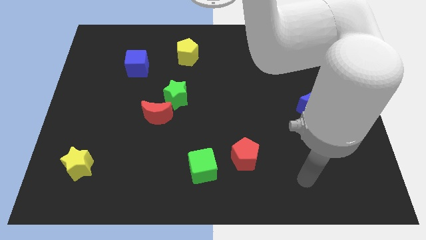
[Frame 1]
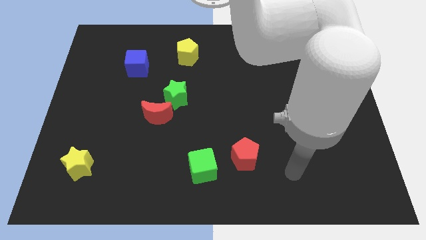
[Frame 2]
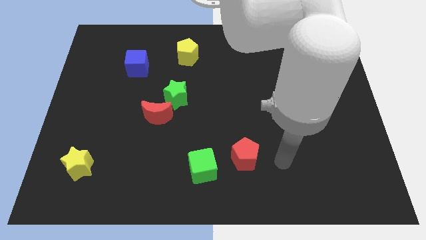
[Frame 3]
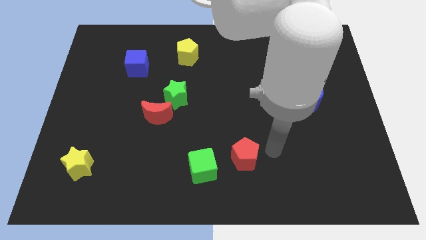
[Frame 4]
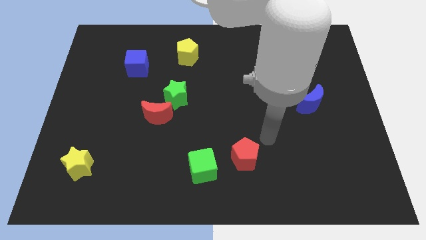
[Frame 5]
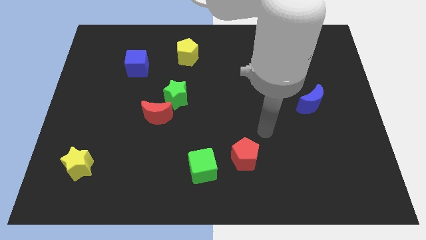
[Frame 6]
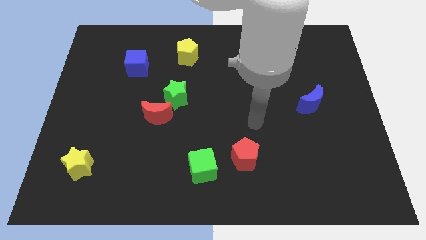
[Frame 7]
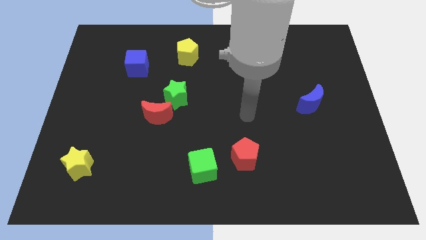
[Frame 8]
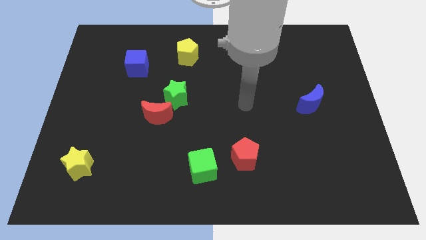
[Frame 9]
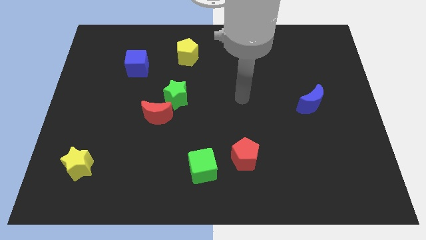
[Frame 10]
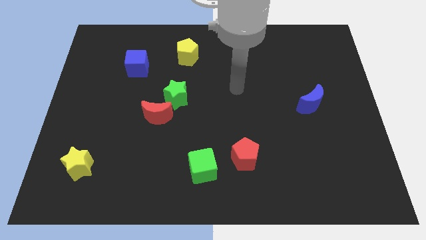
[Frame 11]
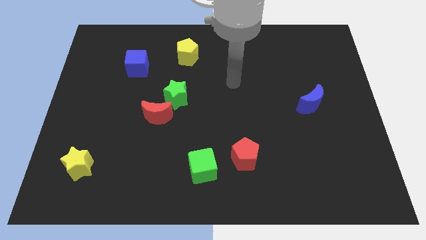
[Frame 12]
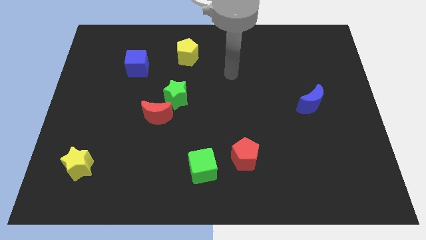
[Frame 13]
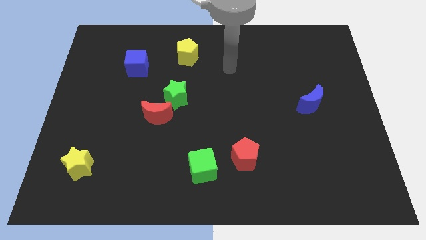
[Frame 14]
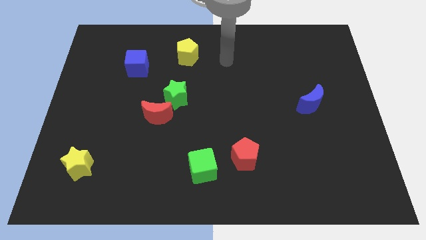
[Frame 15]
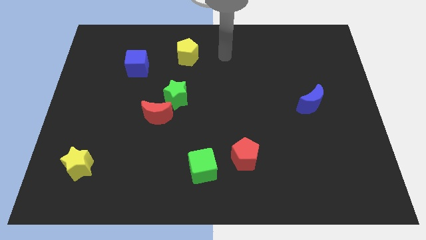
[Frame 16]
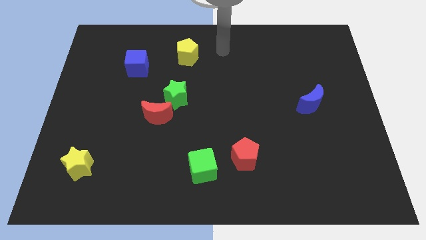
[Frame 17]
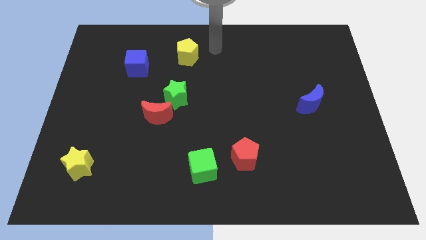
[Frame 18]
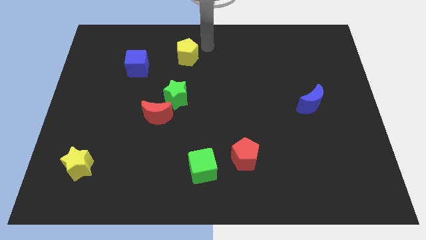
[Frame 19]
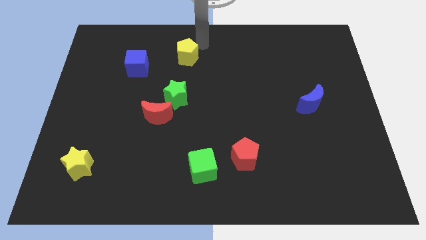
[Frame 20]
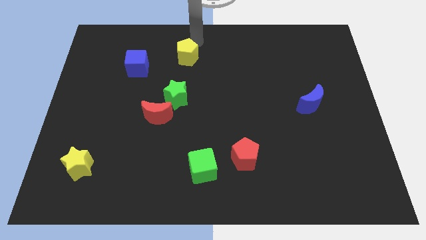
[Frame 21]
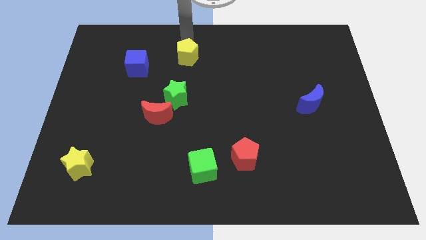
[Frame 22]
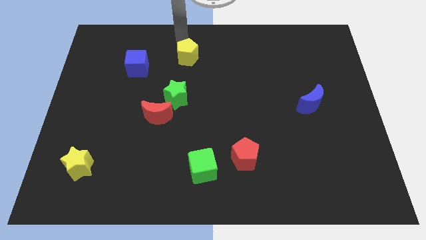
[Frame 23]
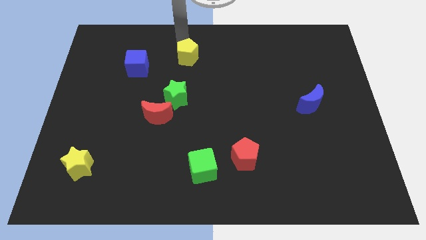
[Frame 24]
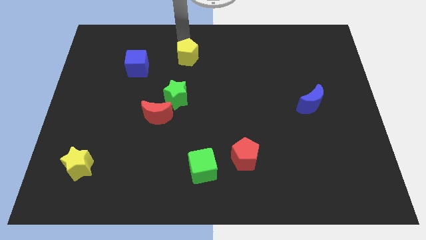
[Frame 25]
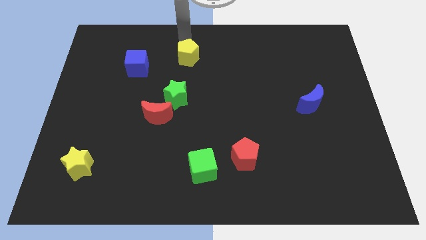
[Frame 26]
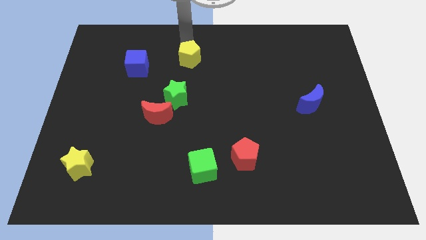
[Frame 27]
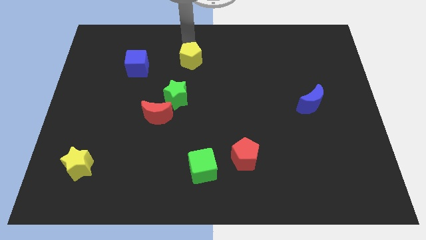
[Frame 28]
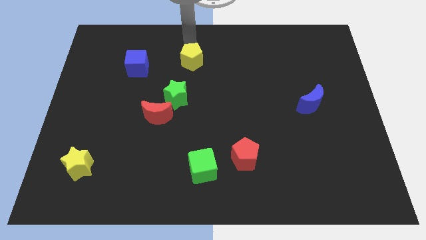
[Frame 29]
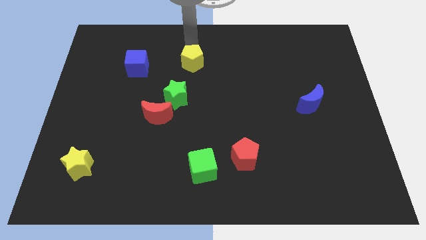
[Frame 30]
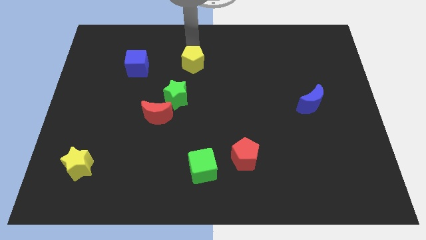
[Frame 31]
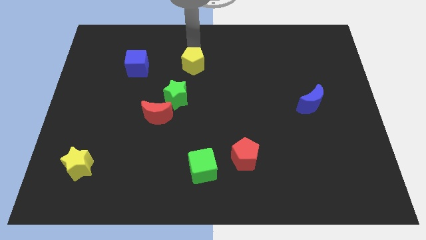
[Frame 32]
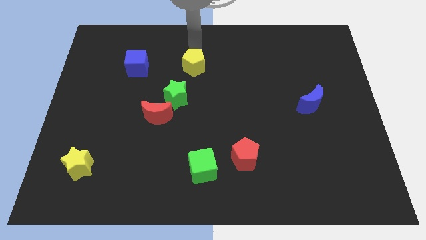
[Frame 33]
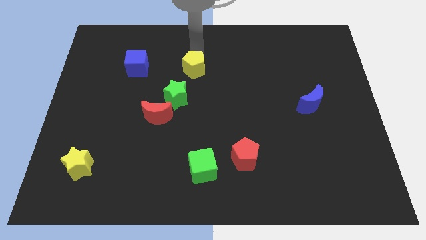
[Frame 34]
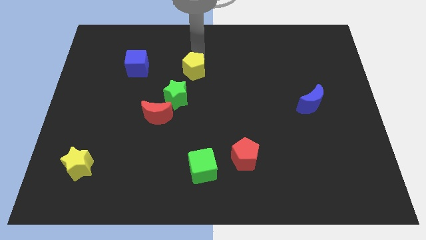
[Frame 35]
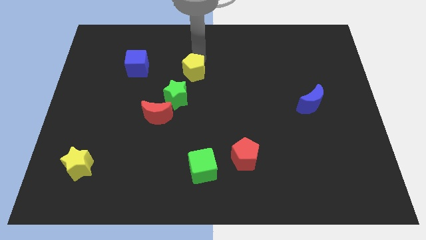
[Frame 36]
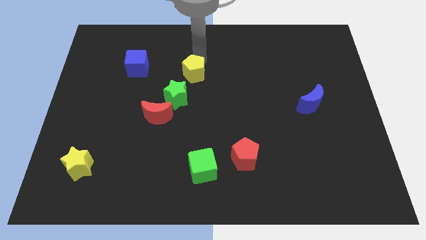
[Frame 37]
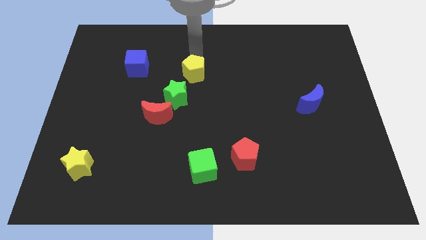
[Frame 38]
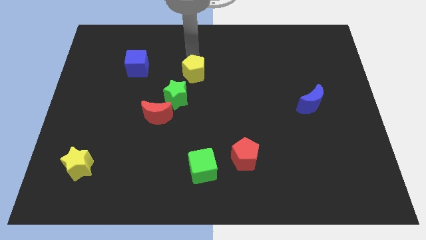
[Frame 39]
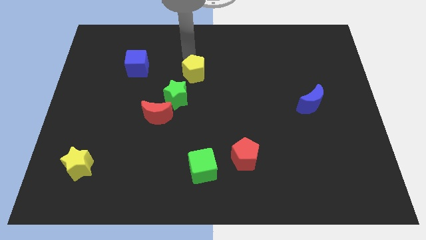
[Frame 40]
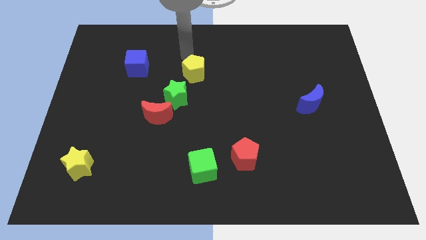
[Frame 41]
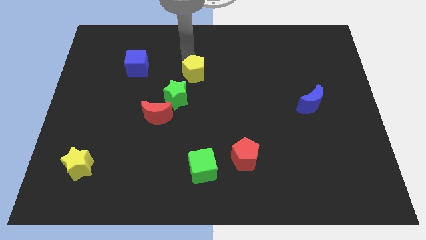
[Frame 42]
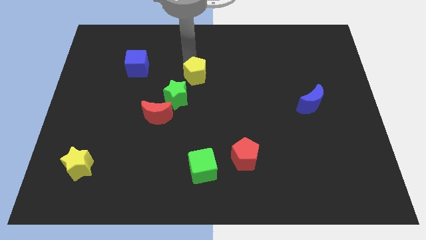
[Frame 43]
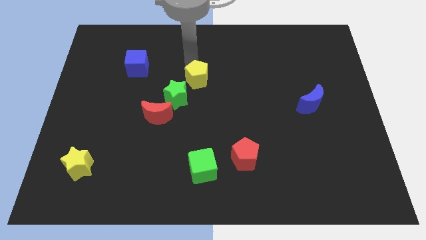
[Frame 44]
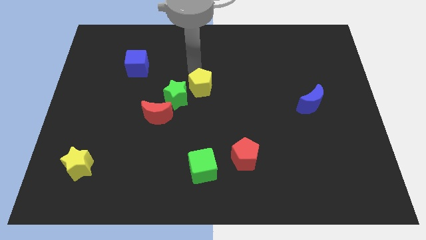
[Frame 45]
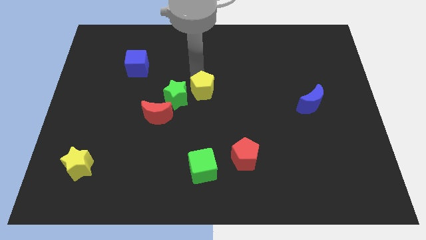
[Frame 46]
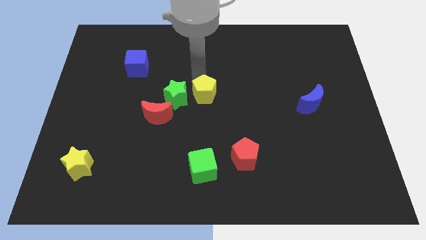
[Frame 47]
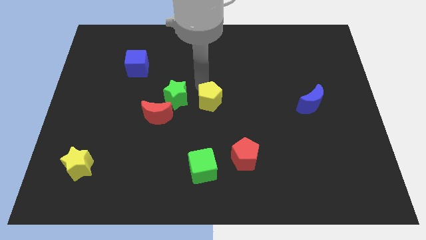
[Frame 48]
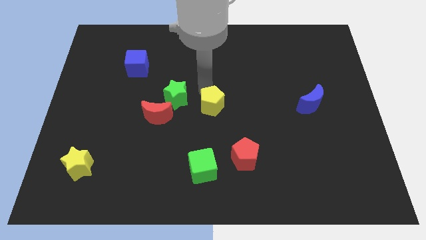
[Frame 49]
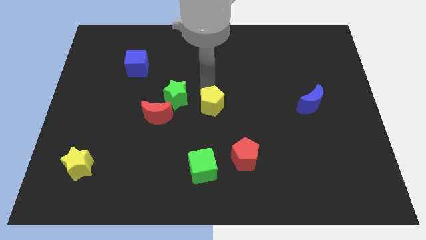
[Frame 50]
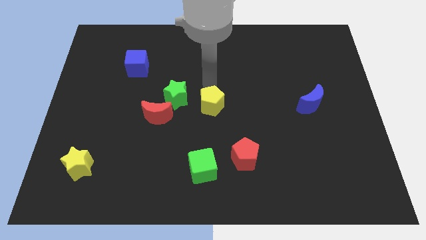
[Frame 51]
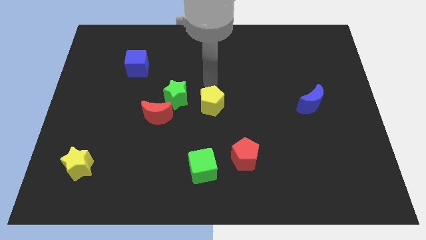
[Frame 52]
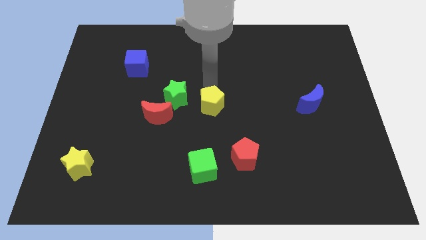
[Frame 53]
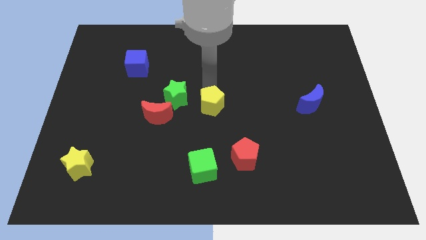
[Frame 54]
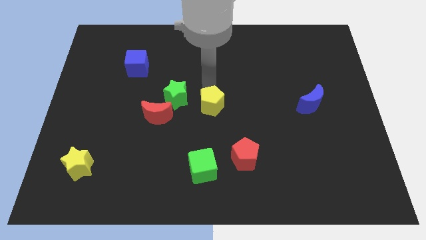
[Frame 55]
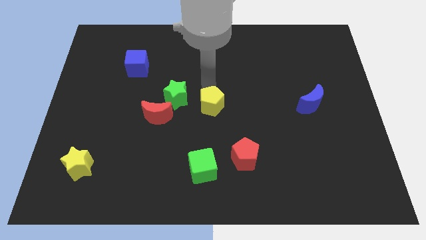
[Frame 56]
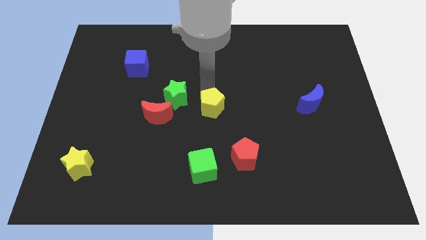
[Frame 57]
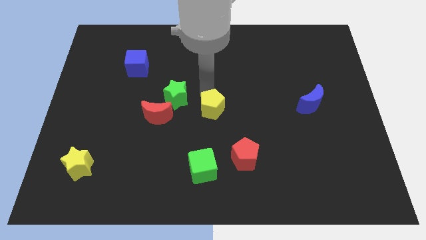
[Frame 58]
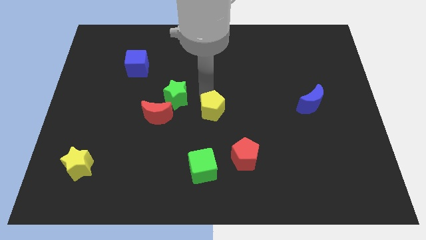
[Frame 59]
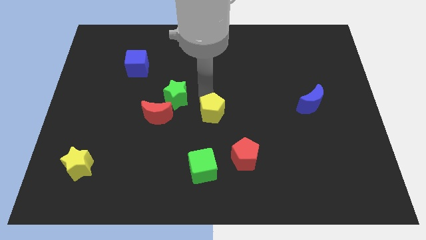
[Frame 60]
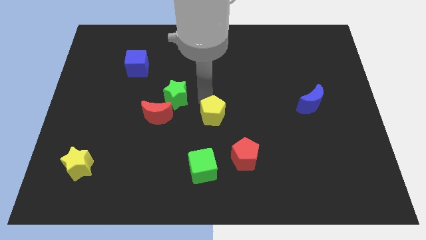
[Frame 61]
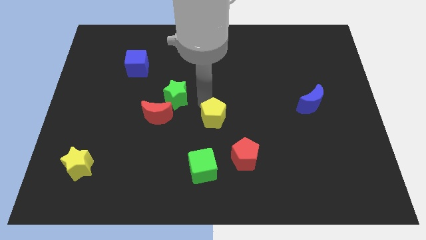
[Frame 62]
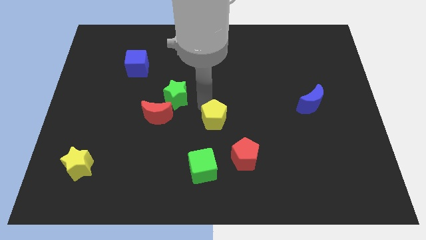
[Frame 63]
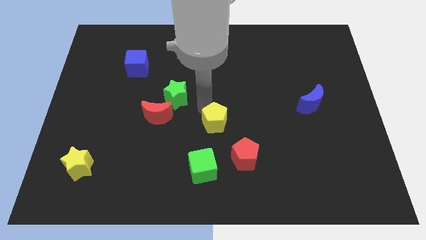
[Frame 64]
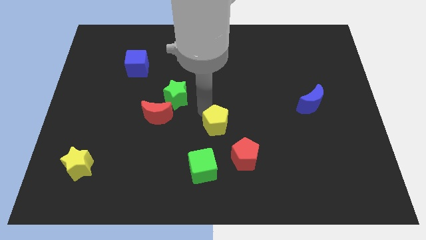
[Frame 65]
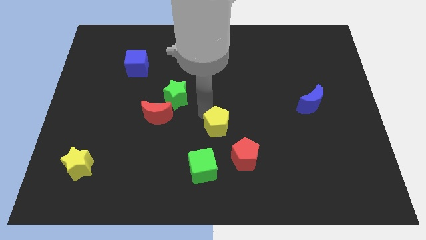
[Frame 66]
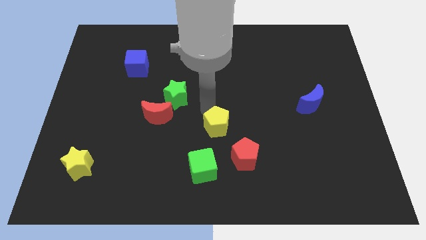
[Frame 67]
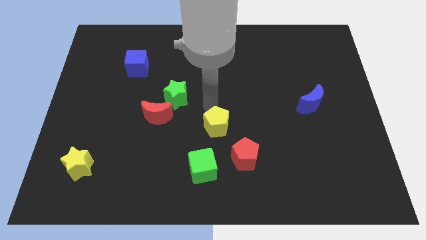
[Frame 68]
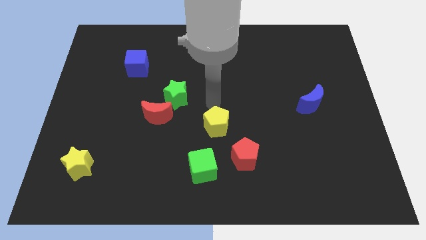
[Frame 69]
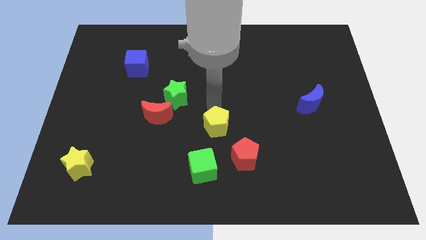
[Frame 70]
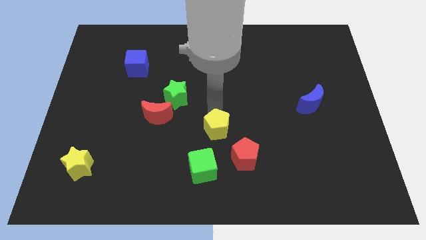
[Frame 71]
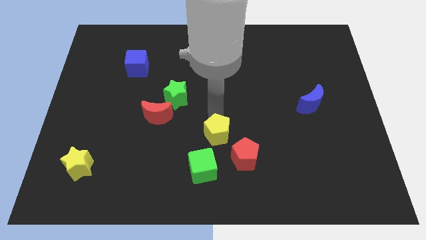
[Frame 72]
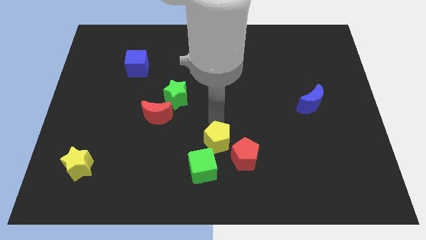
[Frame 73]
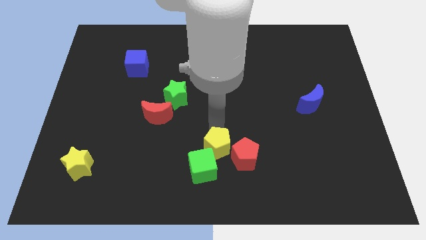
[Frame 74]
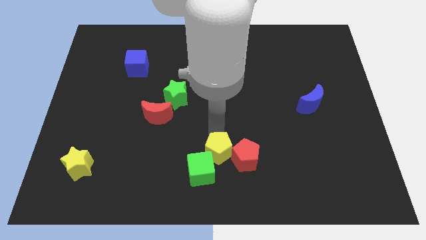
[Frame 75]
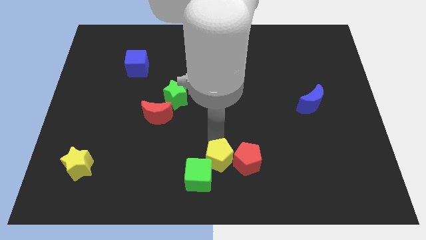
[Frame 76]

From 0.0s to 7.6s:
put the yellow pentagon to the bottom left of the red pentagon
